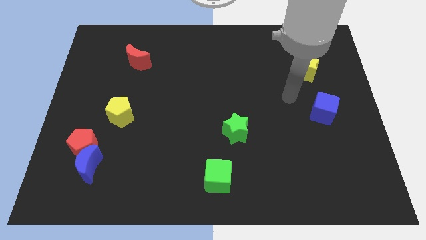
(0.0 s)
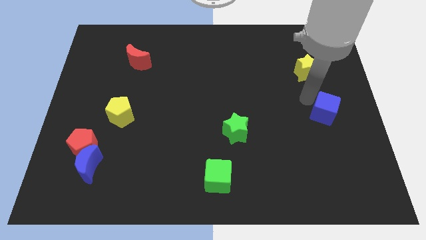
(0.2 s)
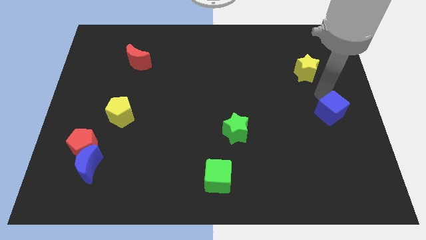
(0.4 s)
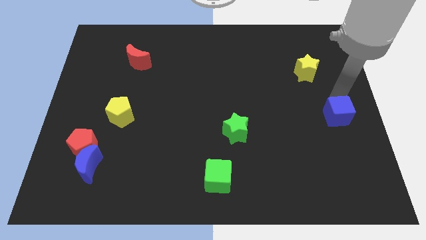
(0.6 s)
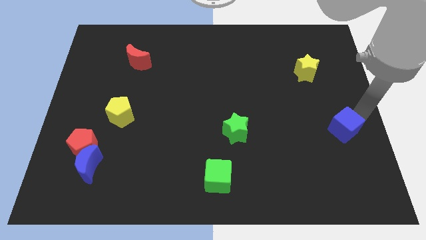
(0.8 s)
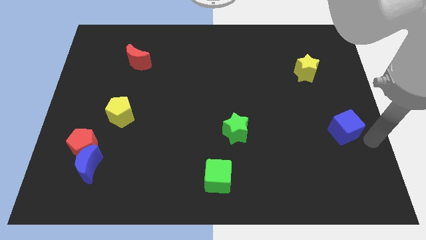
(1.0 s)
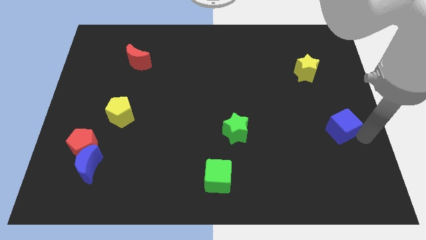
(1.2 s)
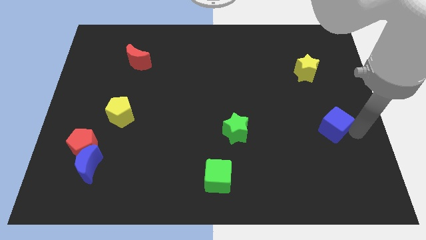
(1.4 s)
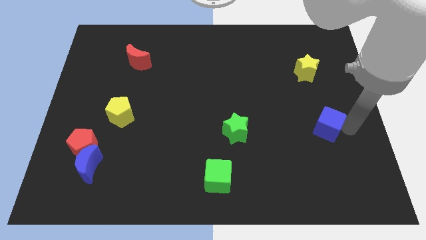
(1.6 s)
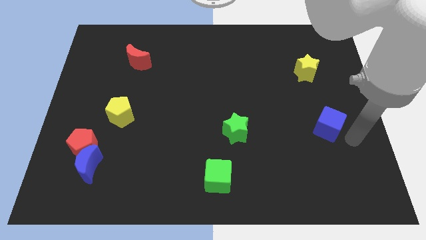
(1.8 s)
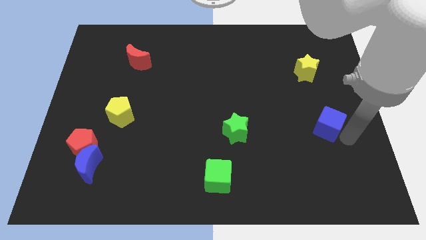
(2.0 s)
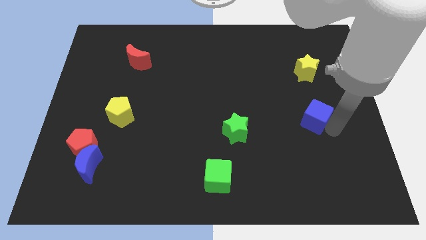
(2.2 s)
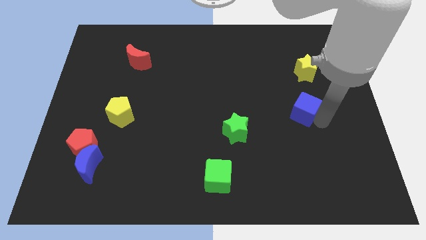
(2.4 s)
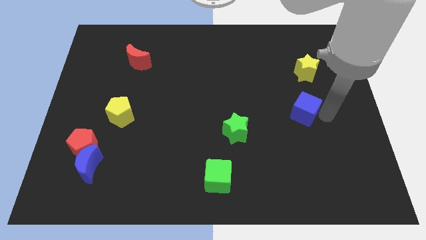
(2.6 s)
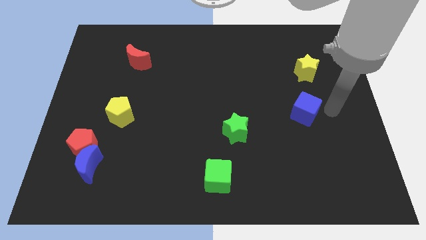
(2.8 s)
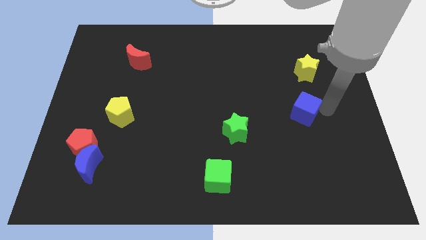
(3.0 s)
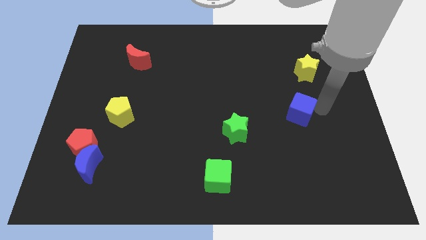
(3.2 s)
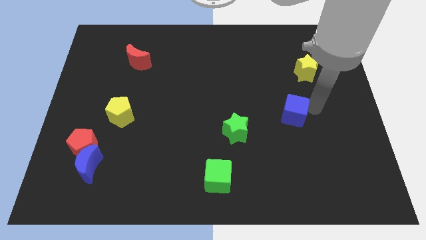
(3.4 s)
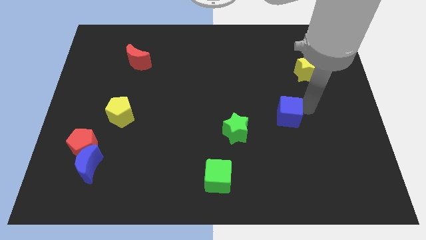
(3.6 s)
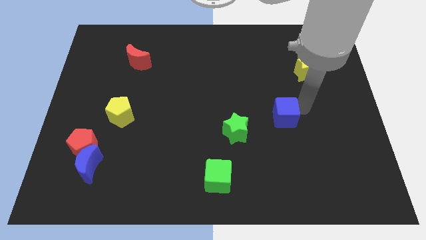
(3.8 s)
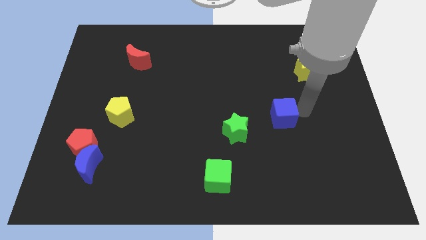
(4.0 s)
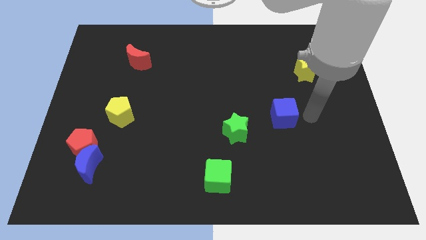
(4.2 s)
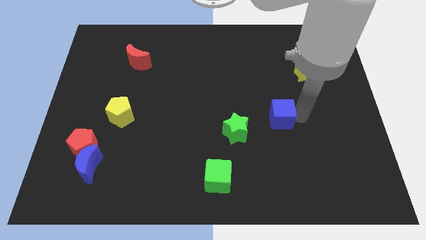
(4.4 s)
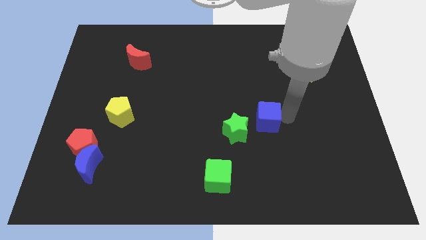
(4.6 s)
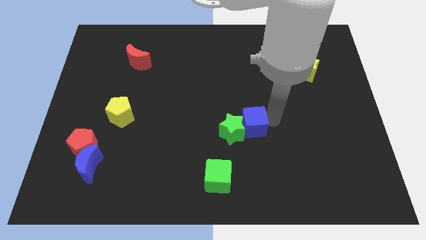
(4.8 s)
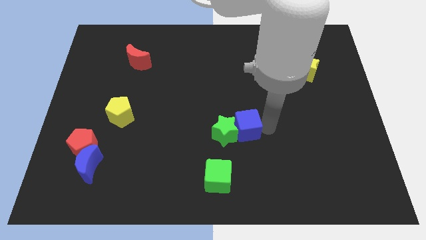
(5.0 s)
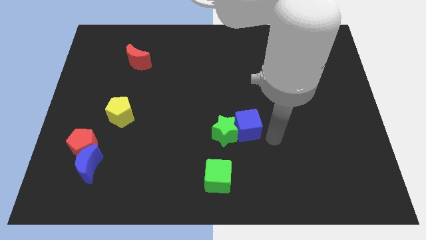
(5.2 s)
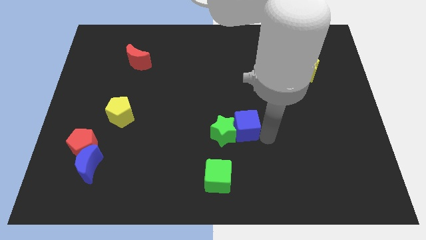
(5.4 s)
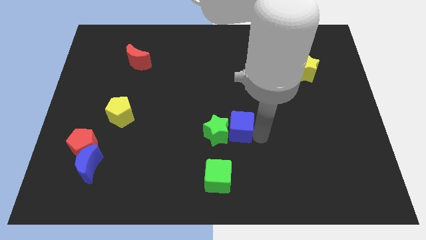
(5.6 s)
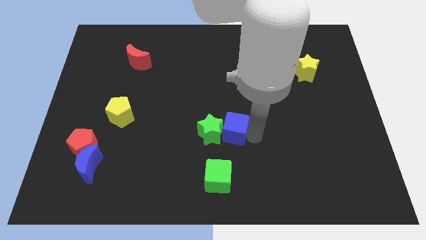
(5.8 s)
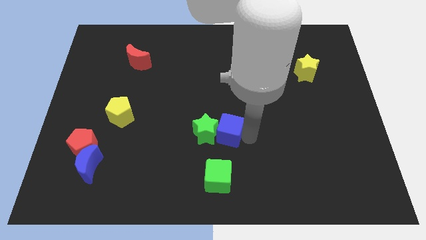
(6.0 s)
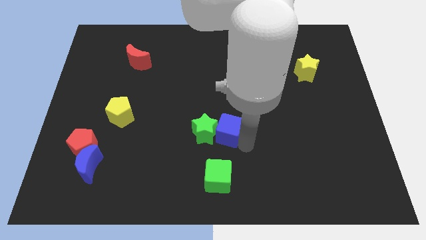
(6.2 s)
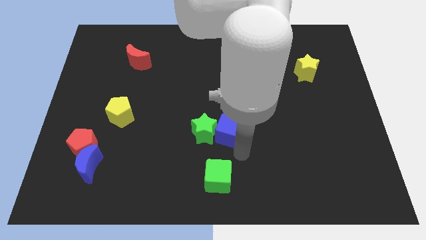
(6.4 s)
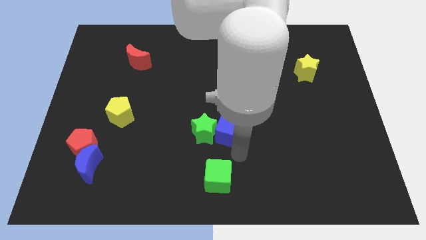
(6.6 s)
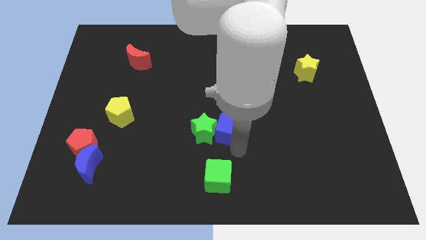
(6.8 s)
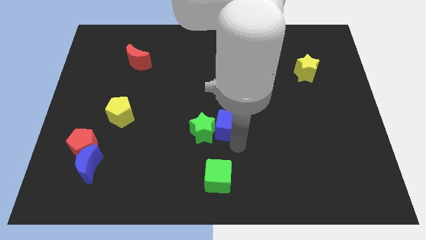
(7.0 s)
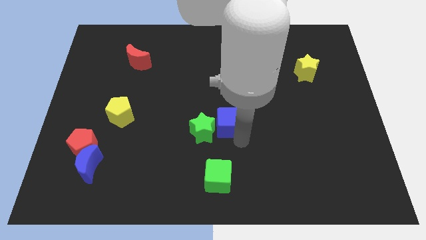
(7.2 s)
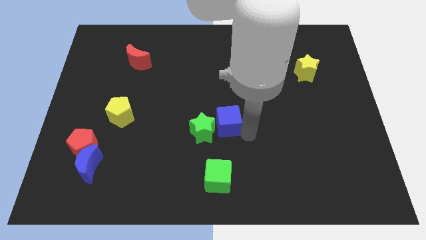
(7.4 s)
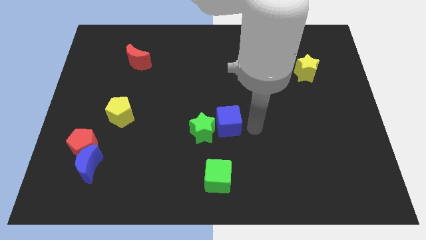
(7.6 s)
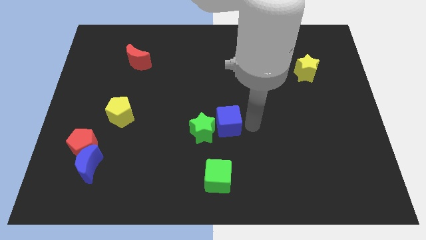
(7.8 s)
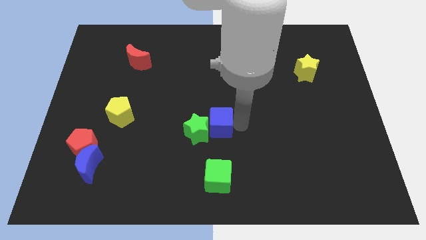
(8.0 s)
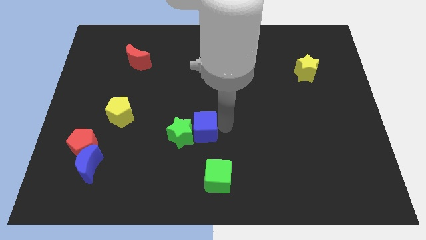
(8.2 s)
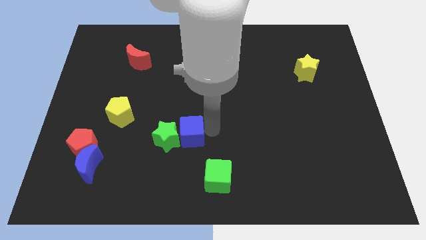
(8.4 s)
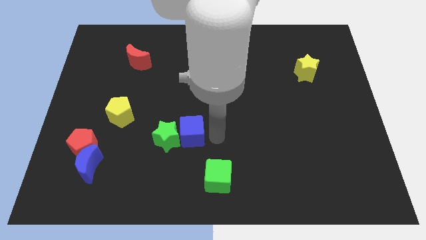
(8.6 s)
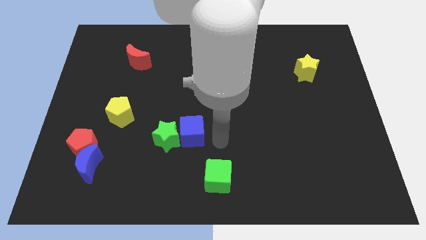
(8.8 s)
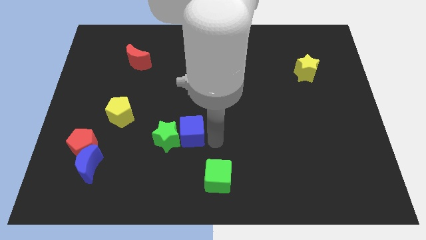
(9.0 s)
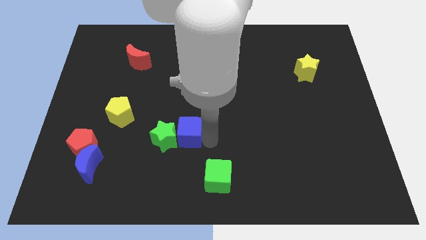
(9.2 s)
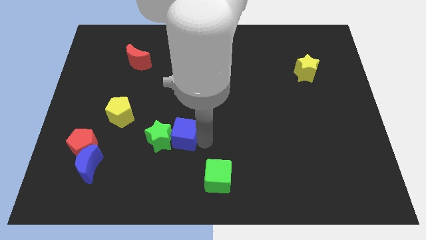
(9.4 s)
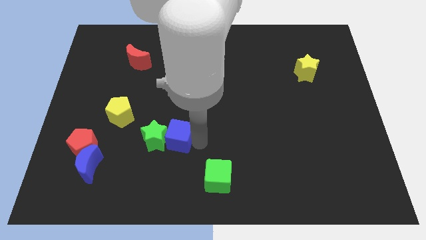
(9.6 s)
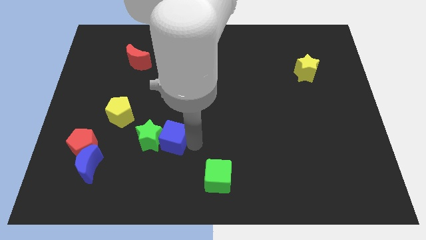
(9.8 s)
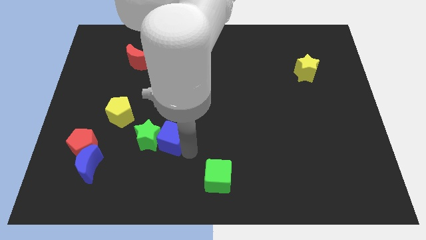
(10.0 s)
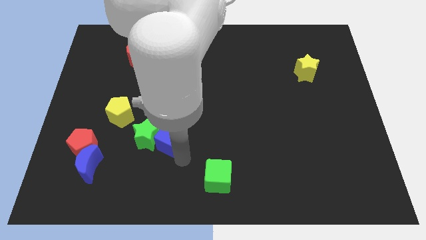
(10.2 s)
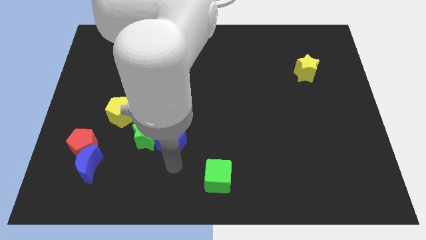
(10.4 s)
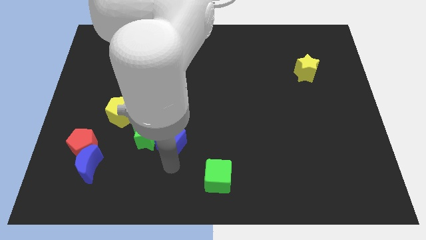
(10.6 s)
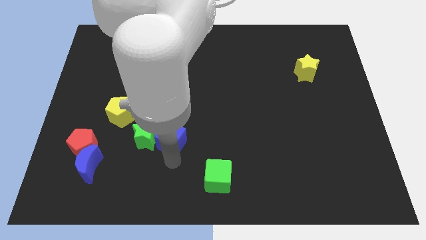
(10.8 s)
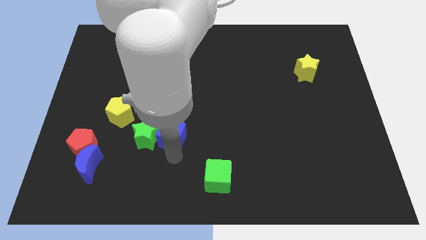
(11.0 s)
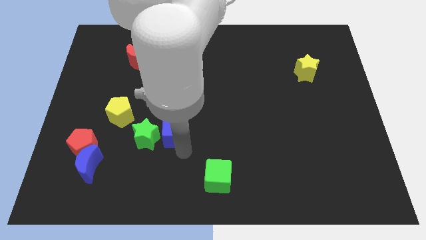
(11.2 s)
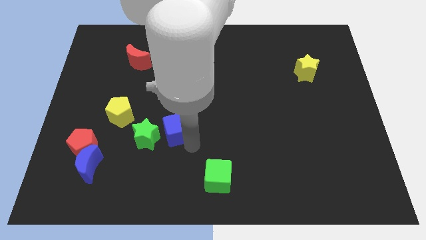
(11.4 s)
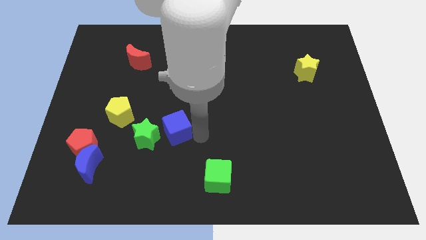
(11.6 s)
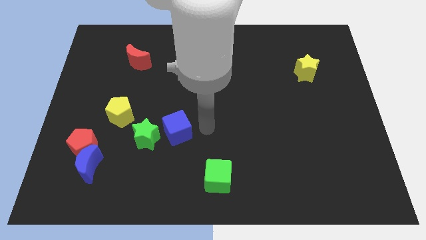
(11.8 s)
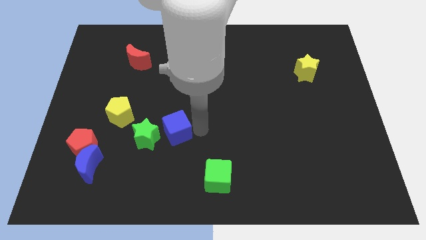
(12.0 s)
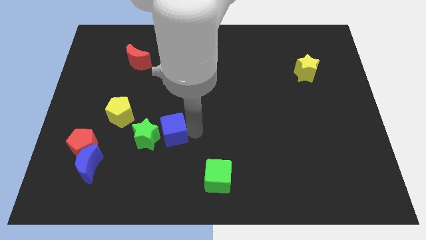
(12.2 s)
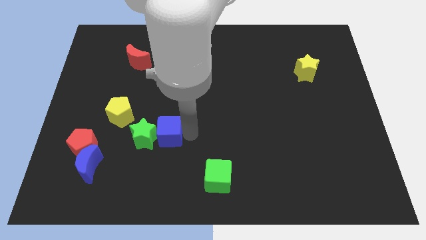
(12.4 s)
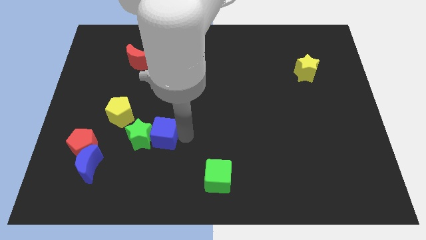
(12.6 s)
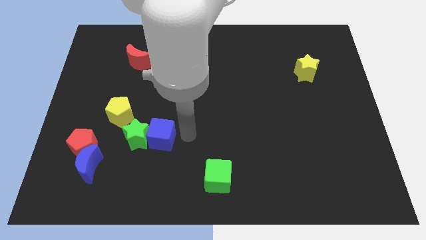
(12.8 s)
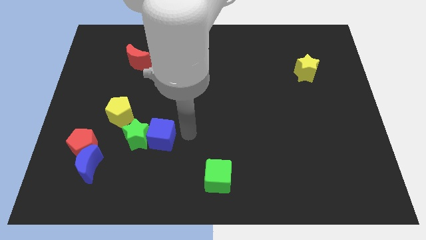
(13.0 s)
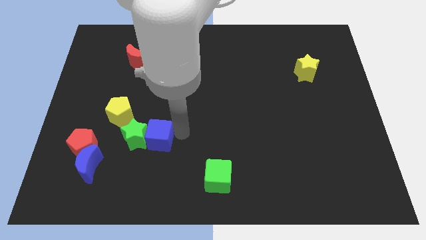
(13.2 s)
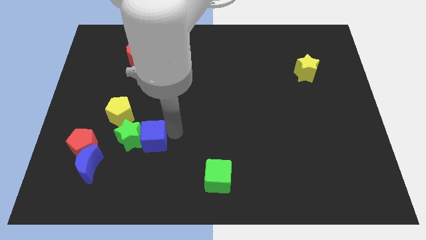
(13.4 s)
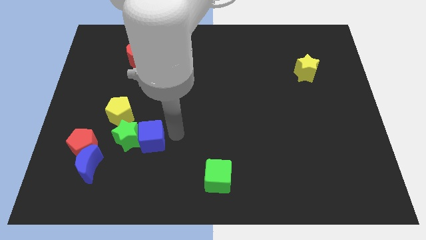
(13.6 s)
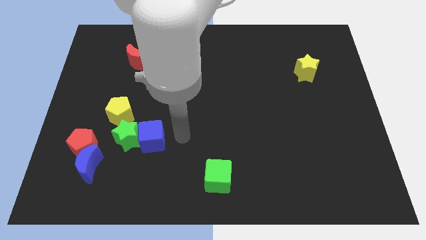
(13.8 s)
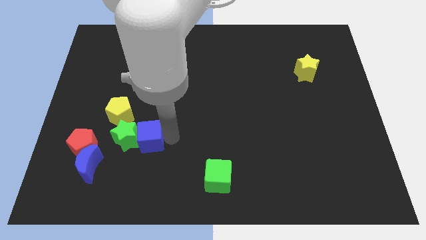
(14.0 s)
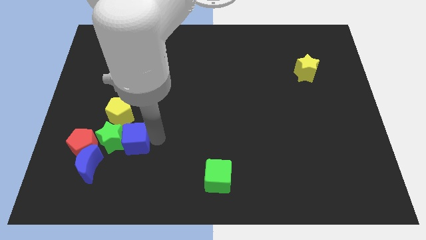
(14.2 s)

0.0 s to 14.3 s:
slide the blue cube to the top right of the blue moon
